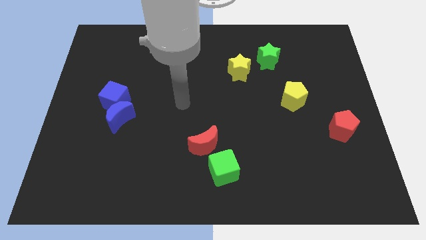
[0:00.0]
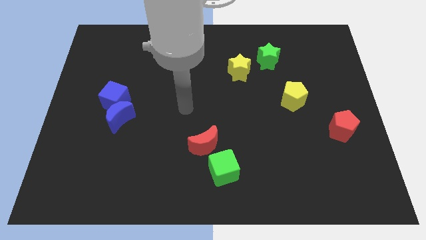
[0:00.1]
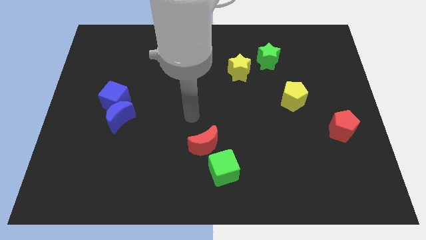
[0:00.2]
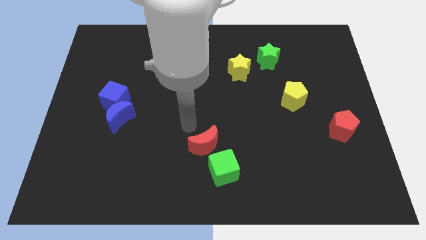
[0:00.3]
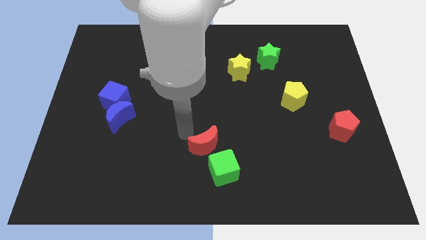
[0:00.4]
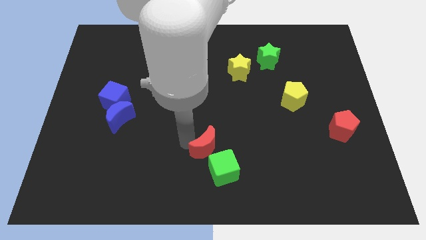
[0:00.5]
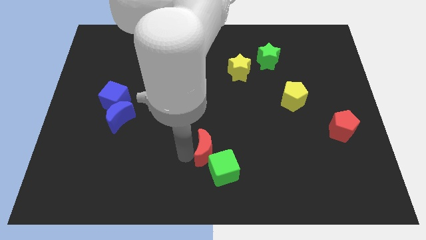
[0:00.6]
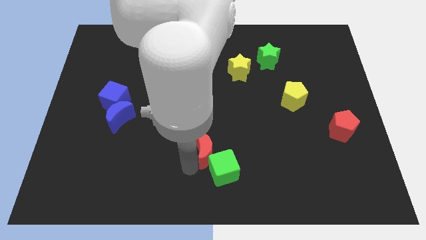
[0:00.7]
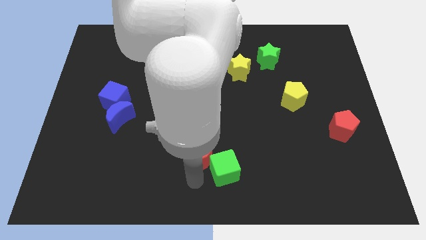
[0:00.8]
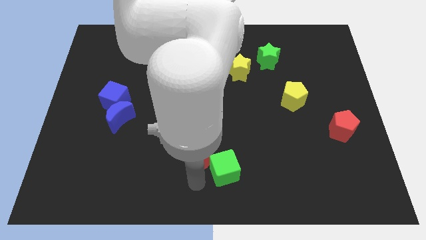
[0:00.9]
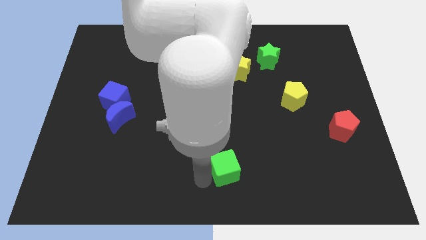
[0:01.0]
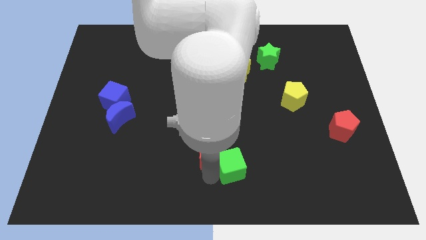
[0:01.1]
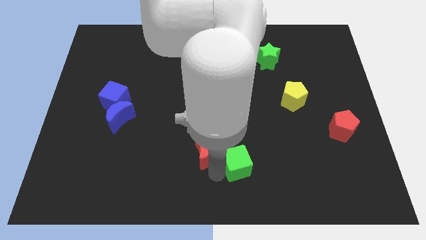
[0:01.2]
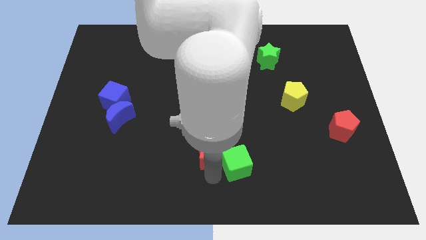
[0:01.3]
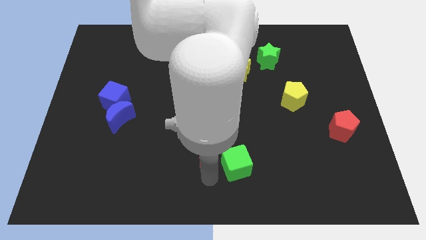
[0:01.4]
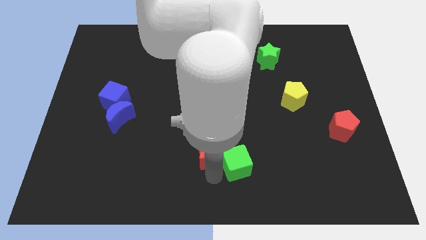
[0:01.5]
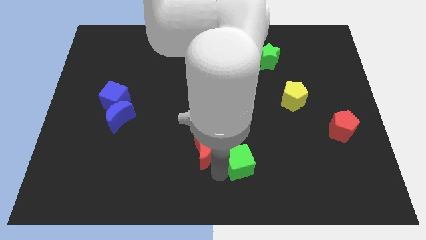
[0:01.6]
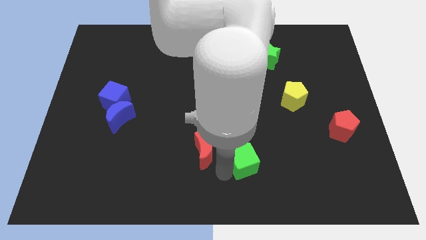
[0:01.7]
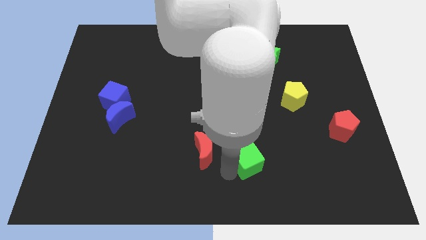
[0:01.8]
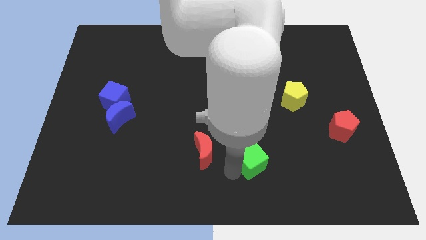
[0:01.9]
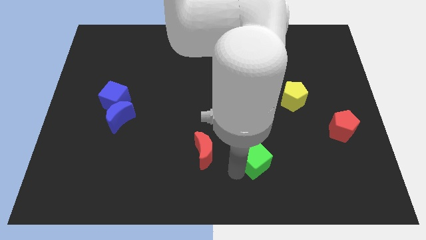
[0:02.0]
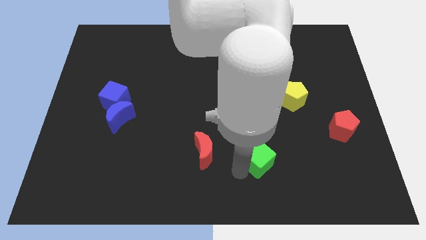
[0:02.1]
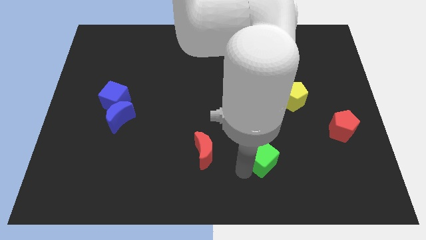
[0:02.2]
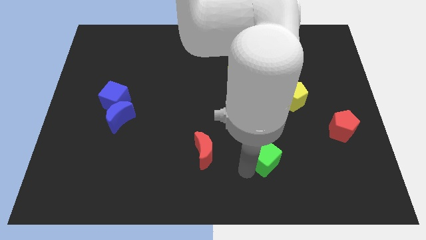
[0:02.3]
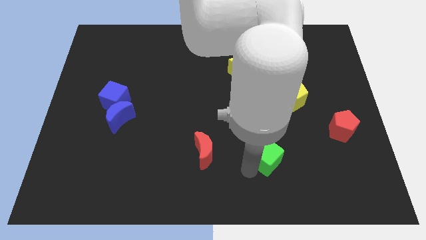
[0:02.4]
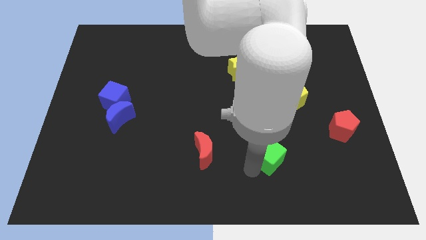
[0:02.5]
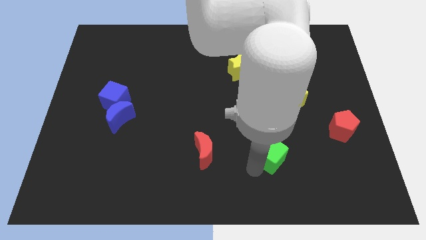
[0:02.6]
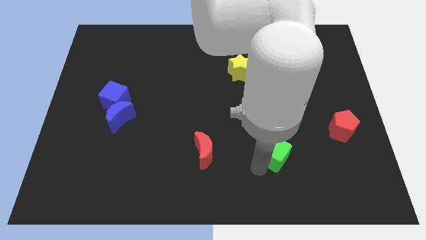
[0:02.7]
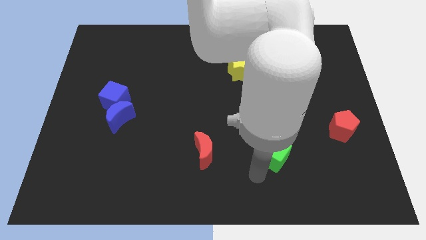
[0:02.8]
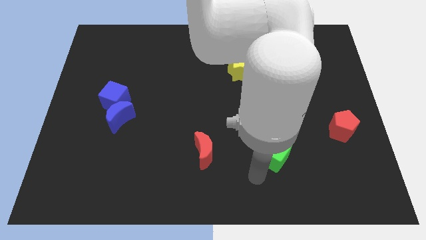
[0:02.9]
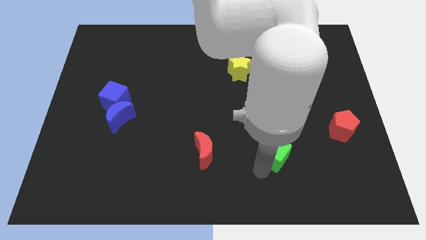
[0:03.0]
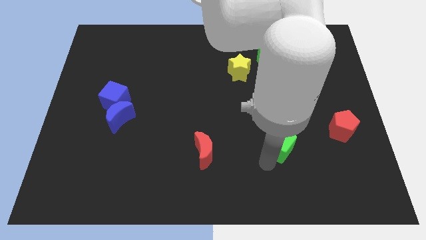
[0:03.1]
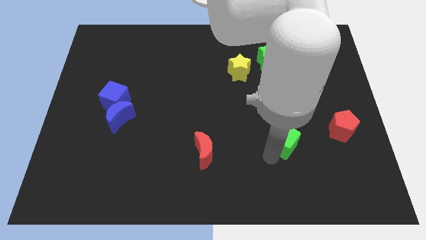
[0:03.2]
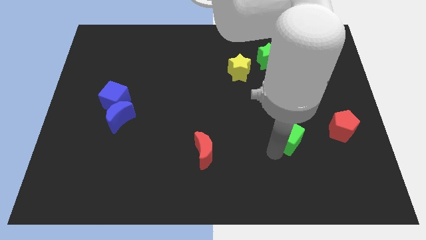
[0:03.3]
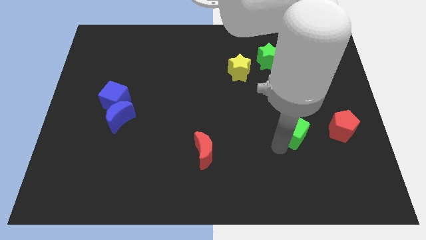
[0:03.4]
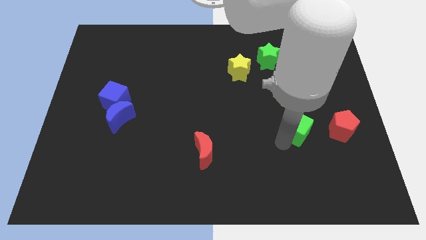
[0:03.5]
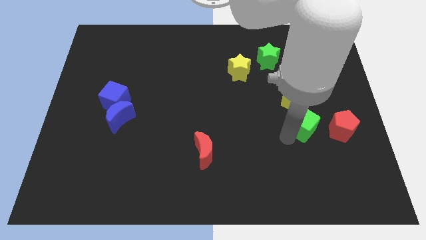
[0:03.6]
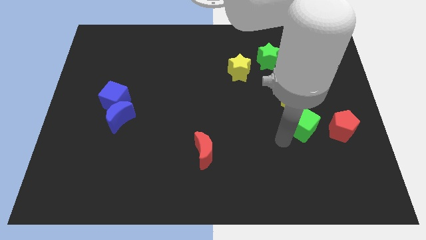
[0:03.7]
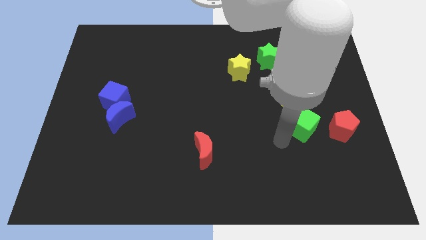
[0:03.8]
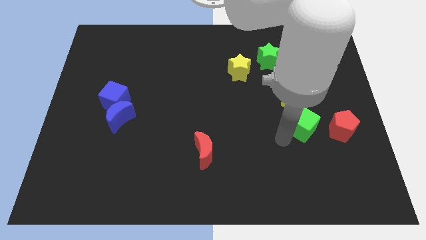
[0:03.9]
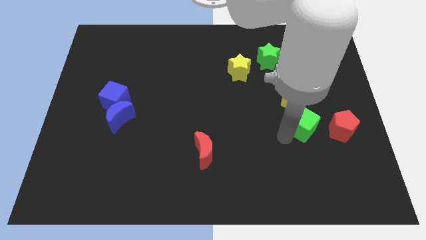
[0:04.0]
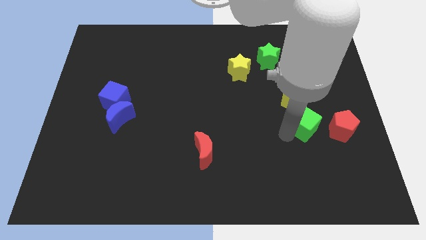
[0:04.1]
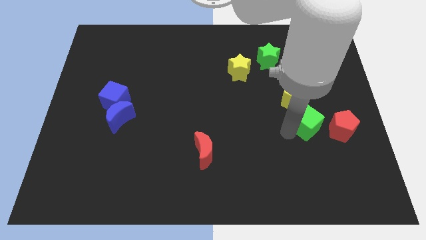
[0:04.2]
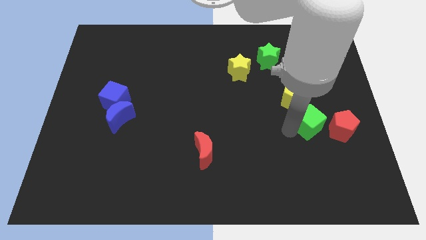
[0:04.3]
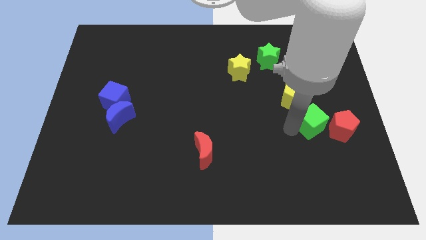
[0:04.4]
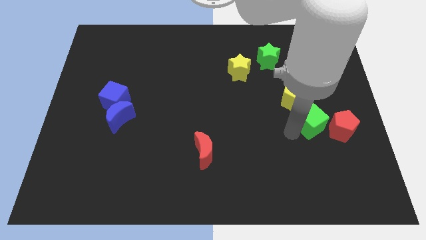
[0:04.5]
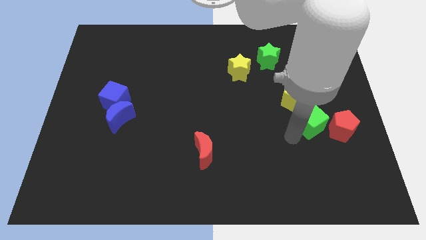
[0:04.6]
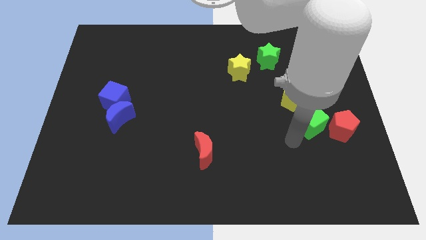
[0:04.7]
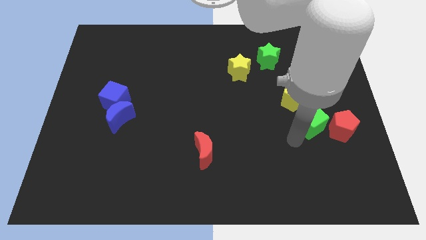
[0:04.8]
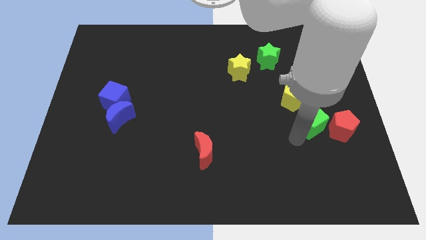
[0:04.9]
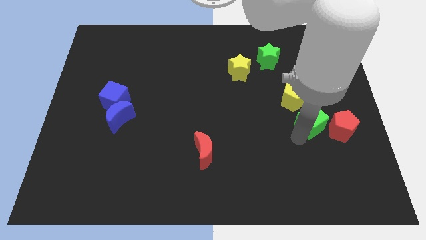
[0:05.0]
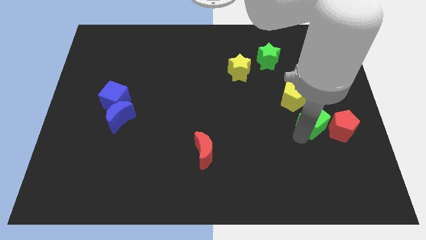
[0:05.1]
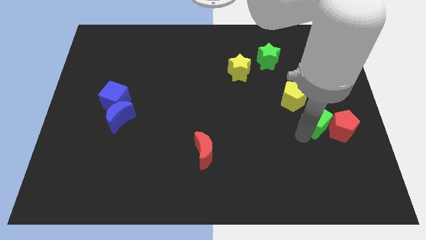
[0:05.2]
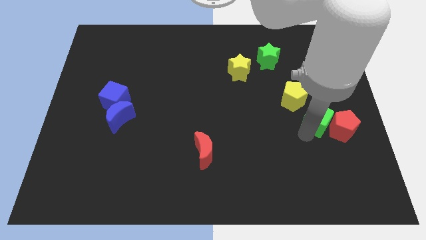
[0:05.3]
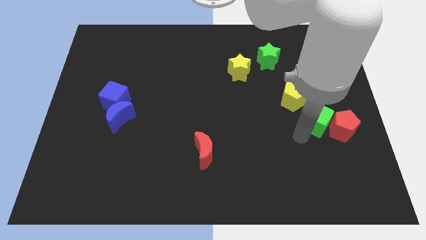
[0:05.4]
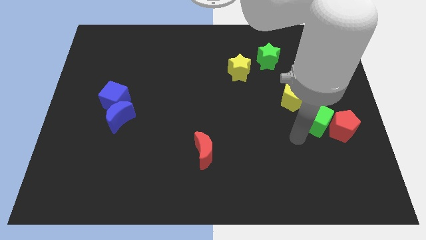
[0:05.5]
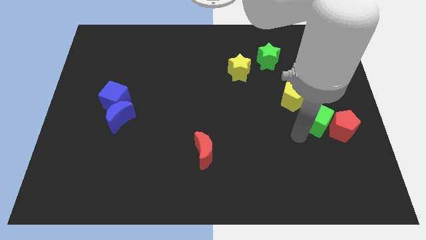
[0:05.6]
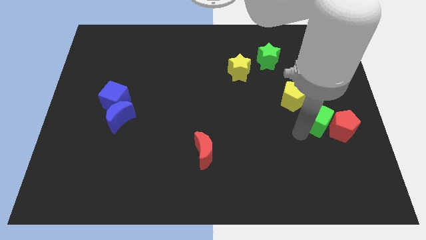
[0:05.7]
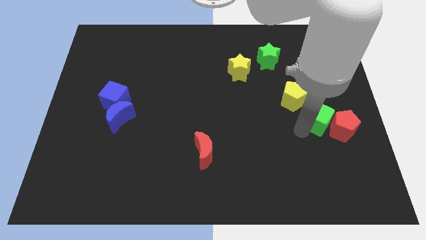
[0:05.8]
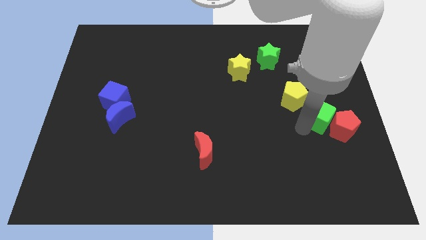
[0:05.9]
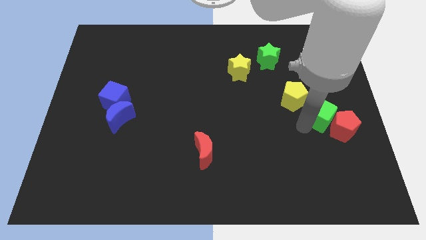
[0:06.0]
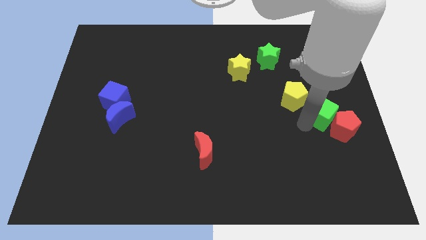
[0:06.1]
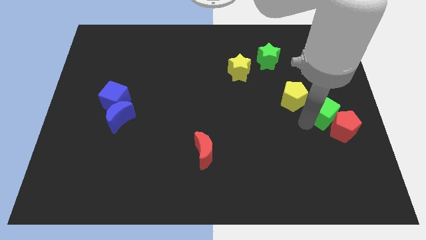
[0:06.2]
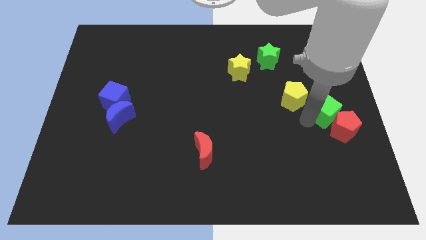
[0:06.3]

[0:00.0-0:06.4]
push the green cube to the right side
